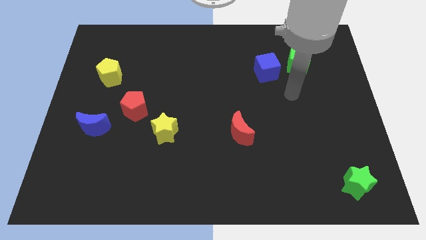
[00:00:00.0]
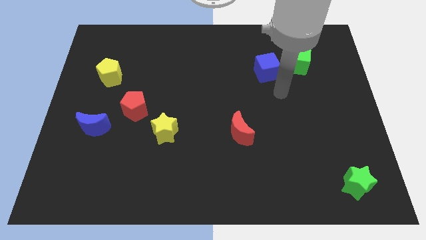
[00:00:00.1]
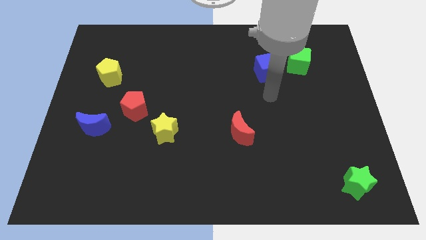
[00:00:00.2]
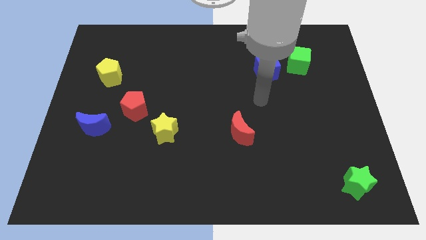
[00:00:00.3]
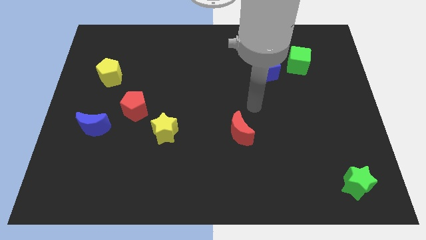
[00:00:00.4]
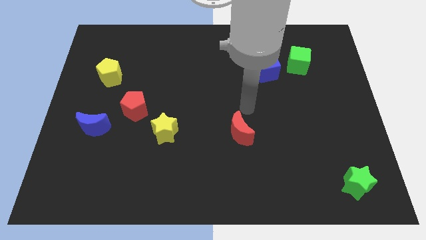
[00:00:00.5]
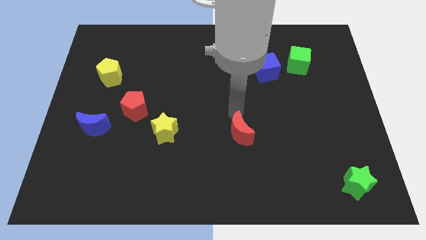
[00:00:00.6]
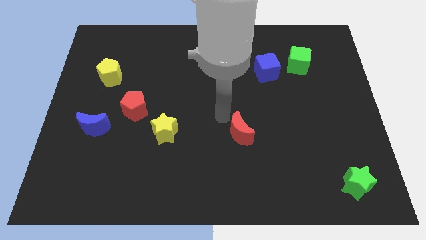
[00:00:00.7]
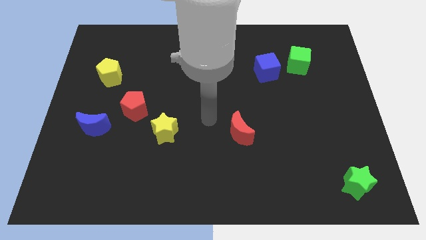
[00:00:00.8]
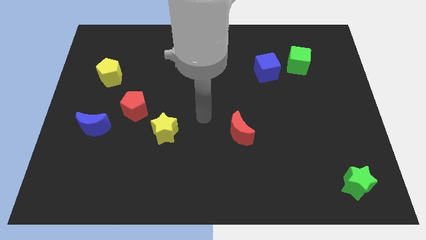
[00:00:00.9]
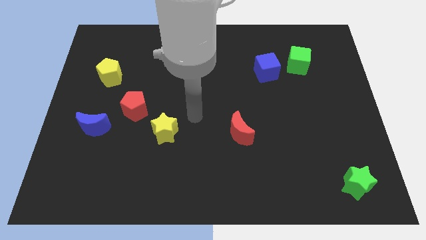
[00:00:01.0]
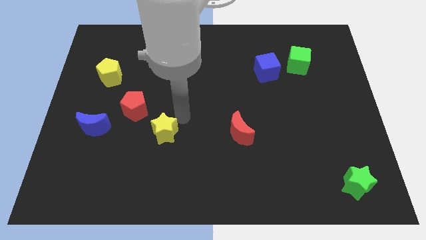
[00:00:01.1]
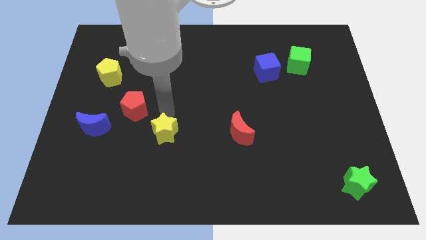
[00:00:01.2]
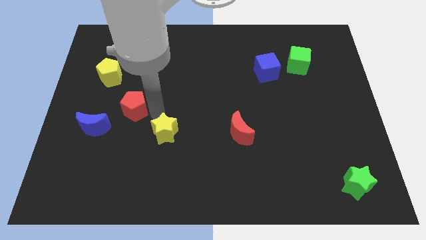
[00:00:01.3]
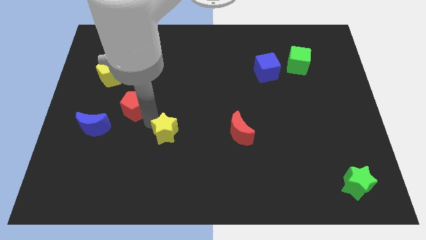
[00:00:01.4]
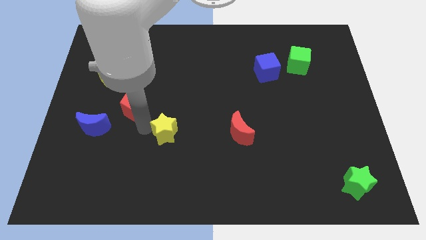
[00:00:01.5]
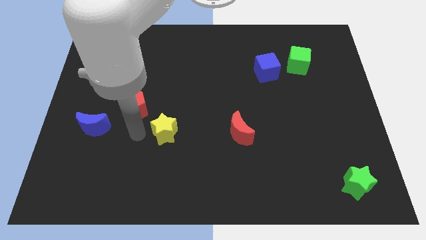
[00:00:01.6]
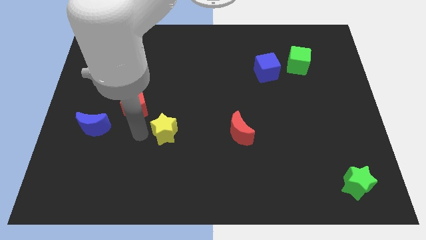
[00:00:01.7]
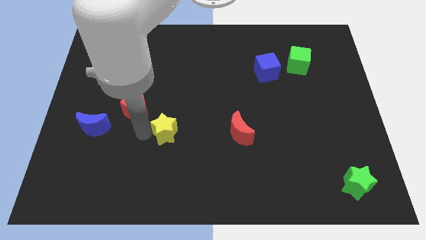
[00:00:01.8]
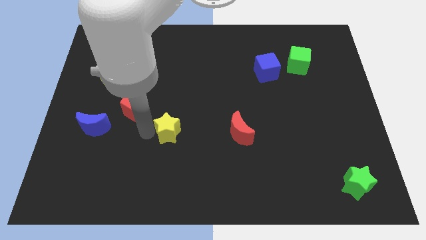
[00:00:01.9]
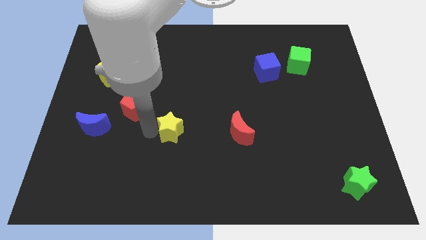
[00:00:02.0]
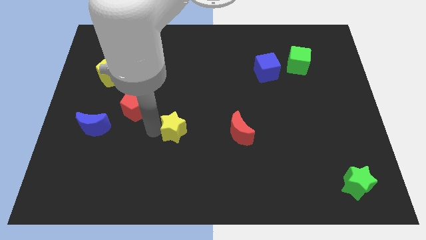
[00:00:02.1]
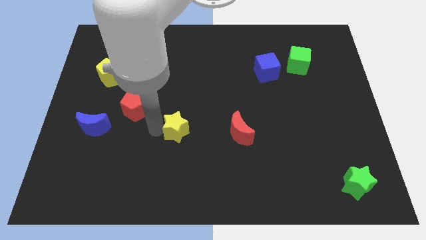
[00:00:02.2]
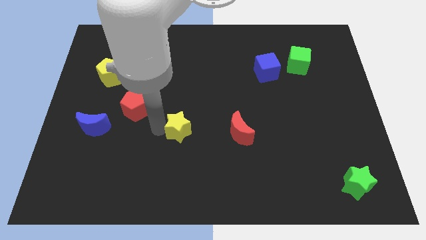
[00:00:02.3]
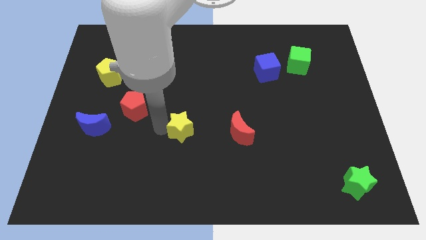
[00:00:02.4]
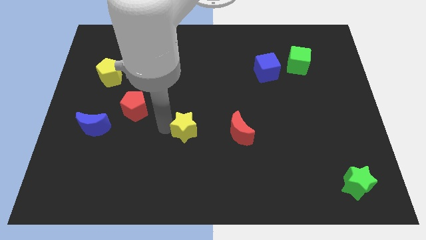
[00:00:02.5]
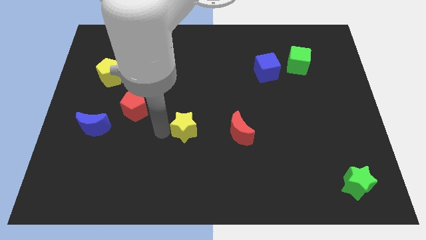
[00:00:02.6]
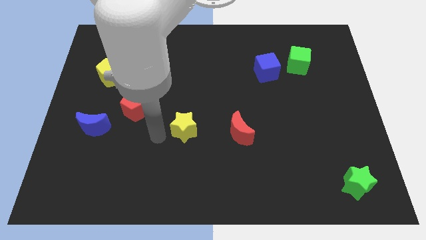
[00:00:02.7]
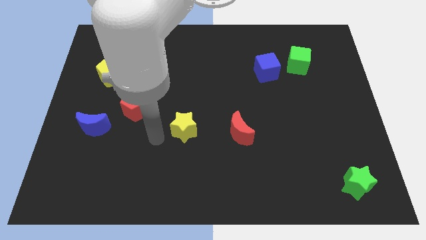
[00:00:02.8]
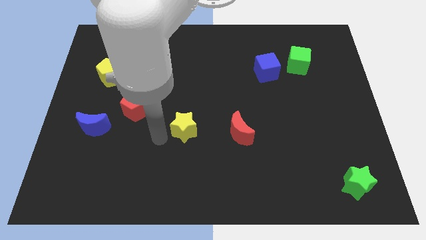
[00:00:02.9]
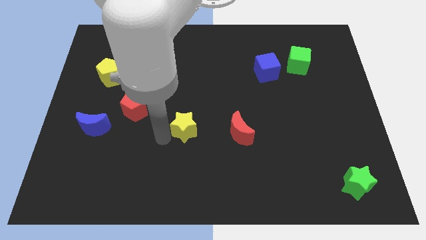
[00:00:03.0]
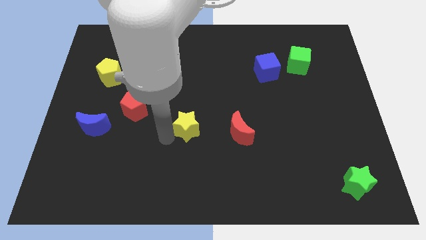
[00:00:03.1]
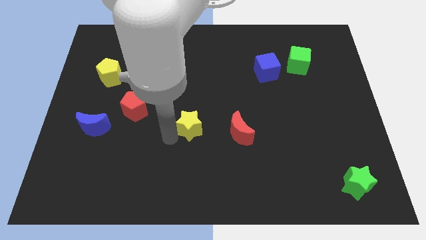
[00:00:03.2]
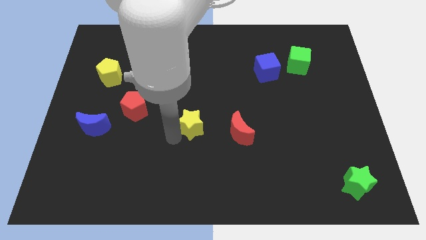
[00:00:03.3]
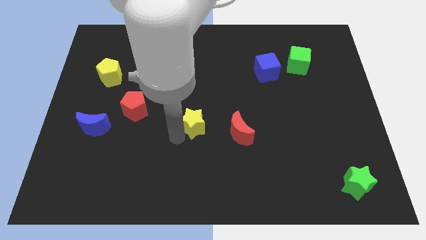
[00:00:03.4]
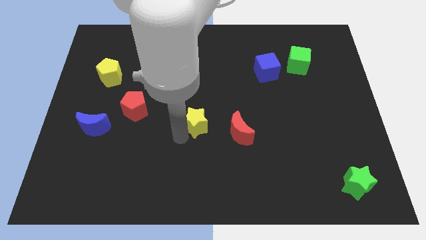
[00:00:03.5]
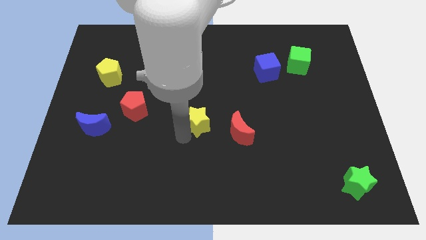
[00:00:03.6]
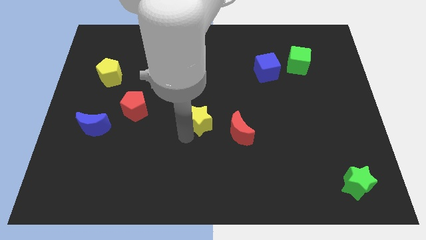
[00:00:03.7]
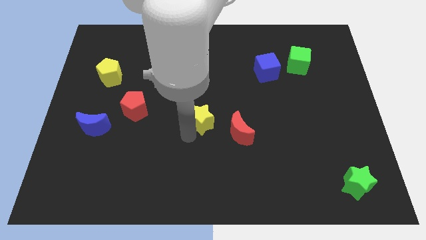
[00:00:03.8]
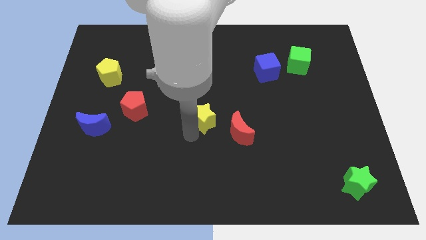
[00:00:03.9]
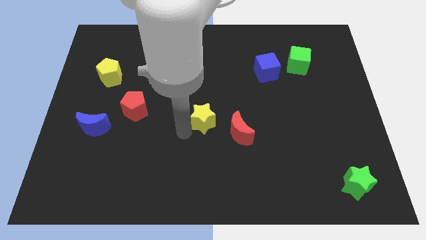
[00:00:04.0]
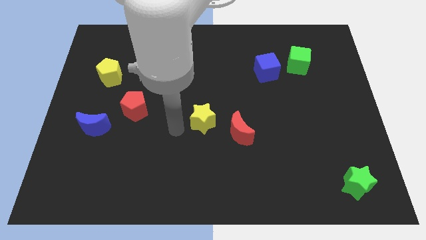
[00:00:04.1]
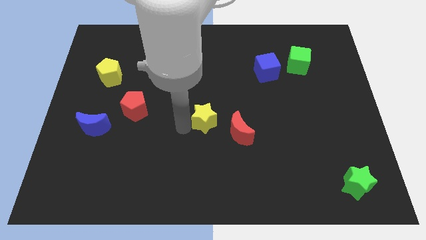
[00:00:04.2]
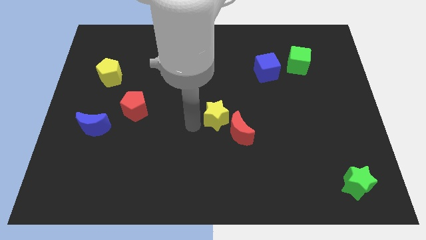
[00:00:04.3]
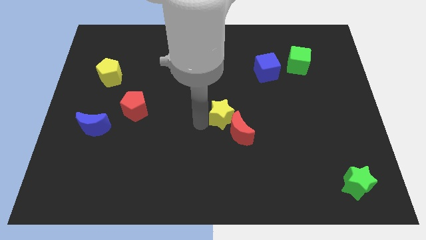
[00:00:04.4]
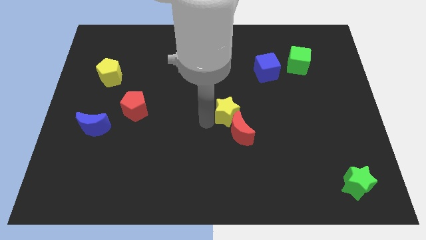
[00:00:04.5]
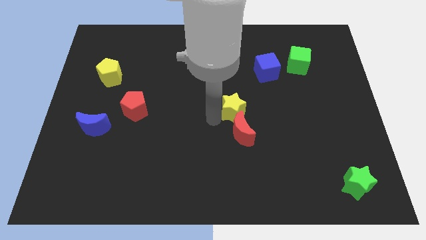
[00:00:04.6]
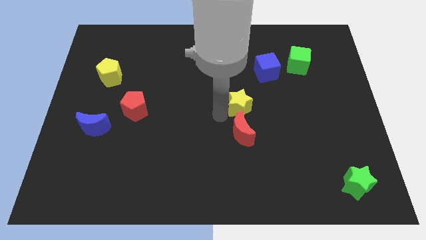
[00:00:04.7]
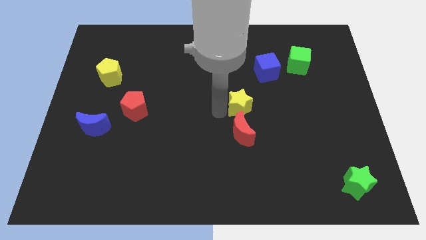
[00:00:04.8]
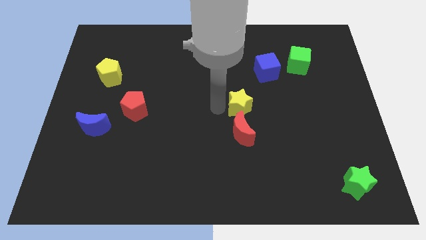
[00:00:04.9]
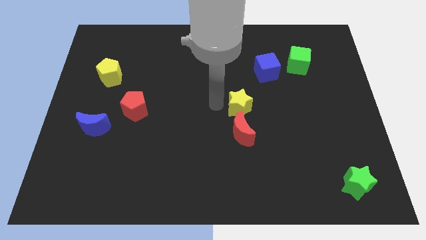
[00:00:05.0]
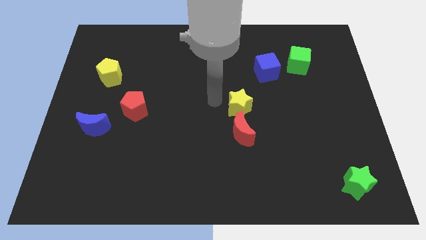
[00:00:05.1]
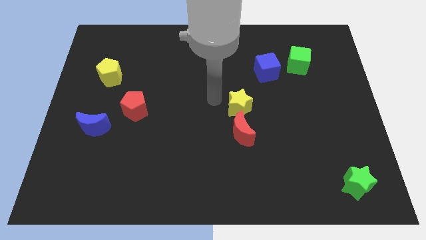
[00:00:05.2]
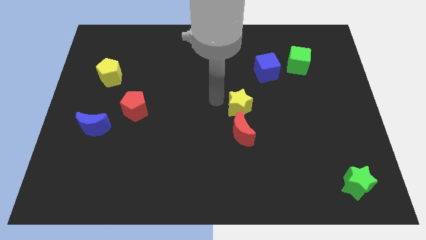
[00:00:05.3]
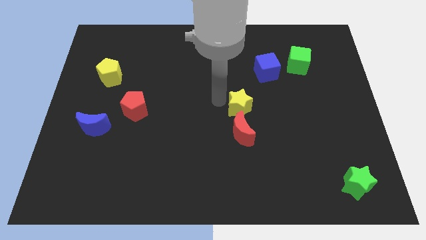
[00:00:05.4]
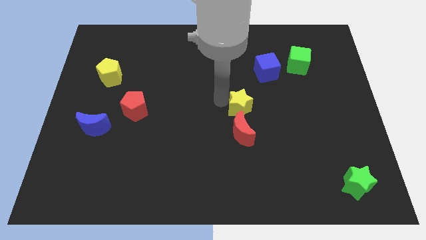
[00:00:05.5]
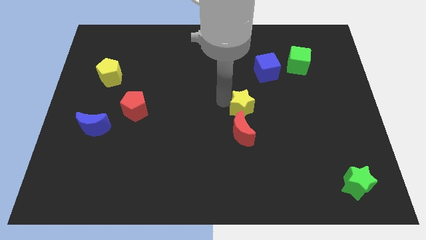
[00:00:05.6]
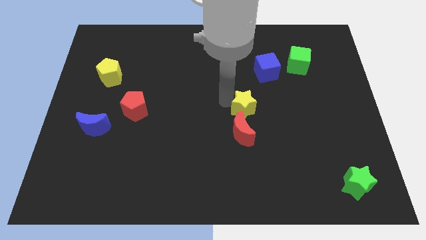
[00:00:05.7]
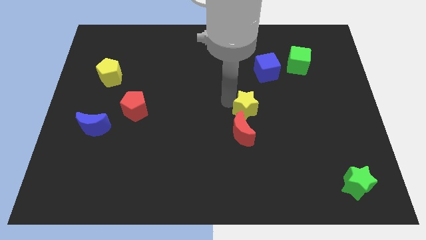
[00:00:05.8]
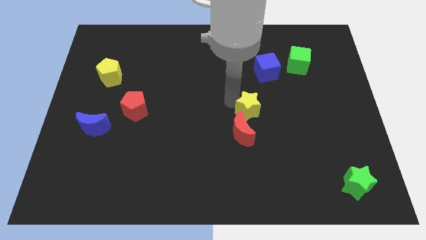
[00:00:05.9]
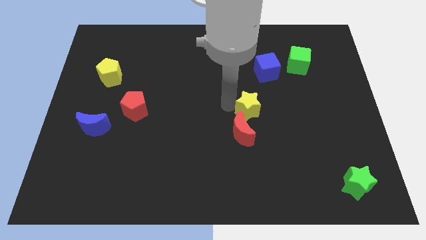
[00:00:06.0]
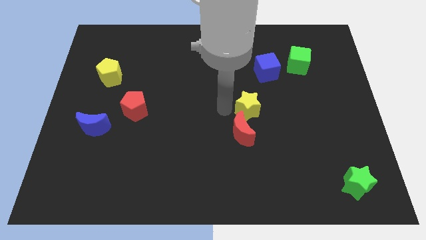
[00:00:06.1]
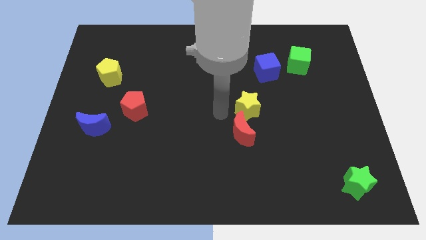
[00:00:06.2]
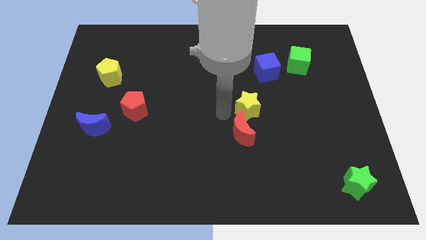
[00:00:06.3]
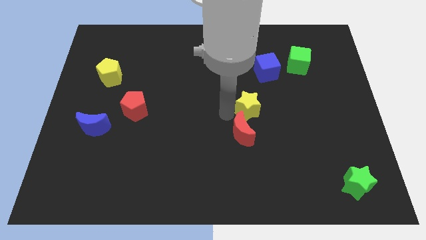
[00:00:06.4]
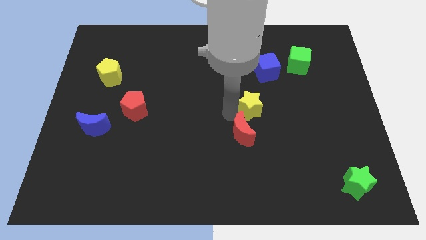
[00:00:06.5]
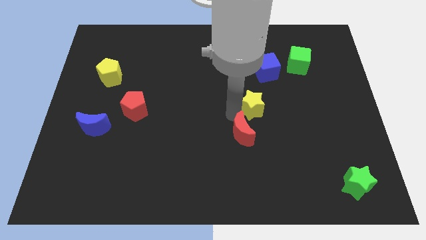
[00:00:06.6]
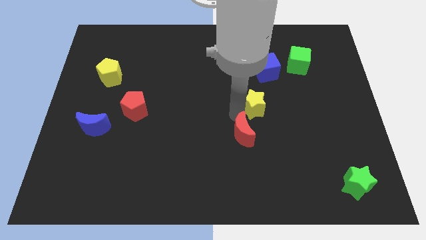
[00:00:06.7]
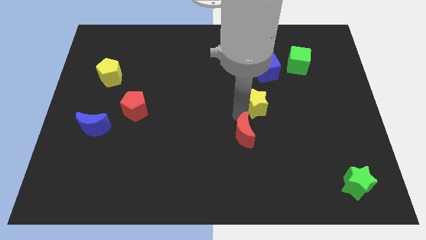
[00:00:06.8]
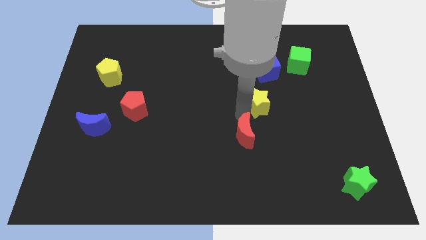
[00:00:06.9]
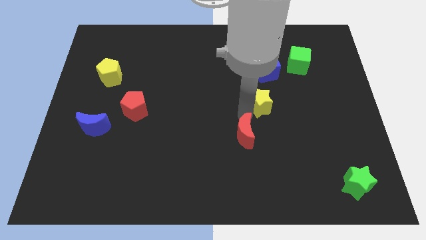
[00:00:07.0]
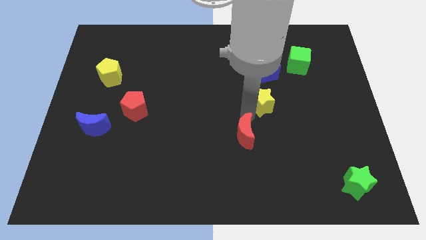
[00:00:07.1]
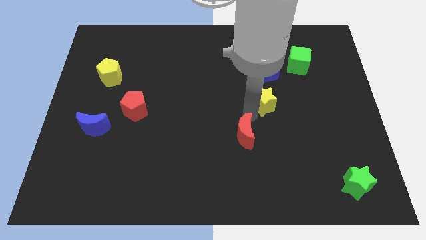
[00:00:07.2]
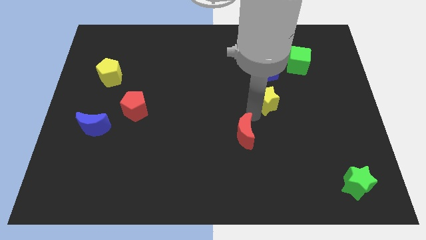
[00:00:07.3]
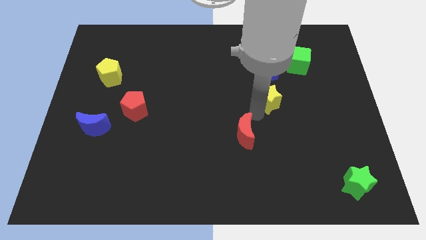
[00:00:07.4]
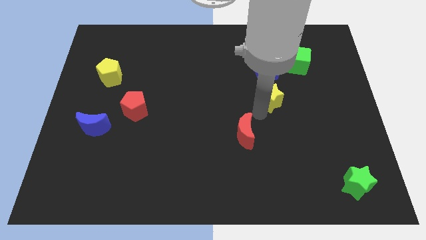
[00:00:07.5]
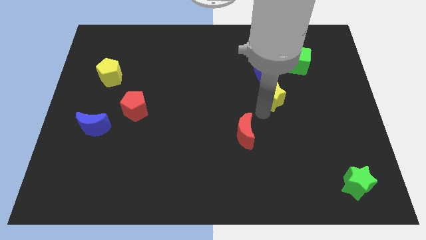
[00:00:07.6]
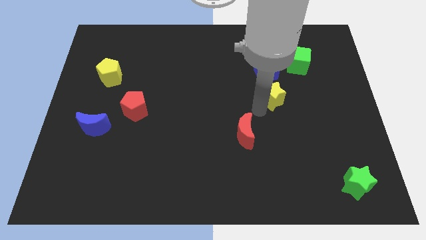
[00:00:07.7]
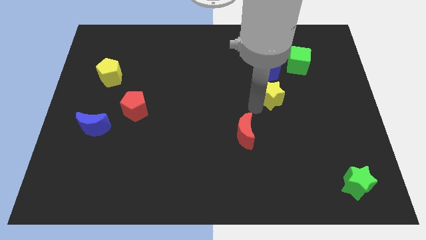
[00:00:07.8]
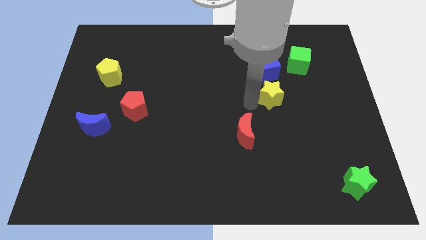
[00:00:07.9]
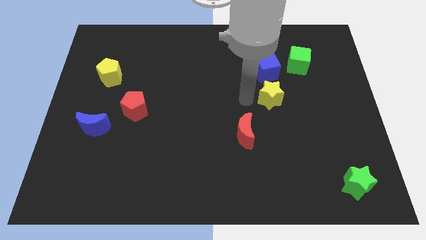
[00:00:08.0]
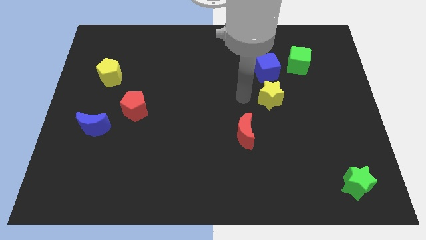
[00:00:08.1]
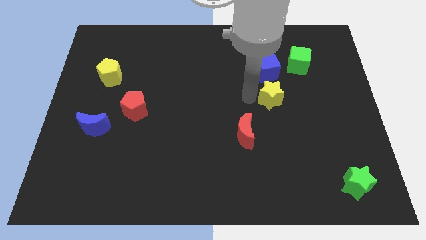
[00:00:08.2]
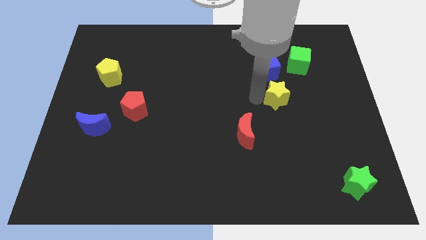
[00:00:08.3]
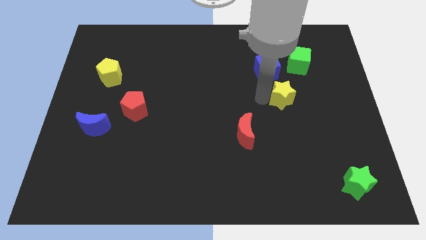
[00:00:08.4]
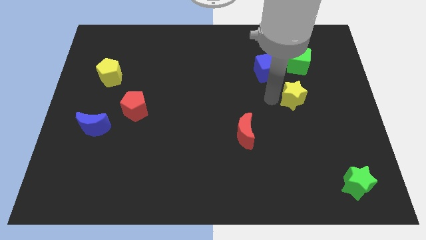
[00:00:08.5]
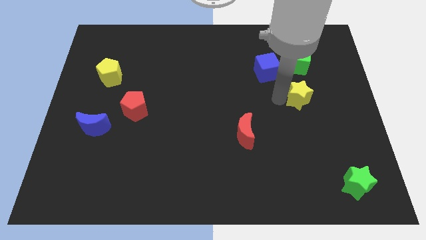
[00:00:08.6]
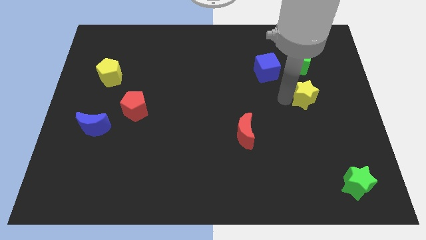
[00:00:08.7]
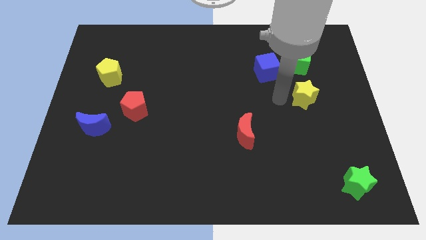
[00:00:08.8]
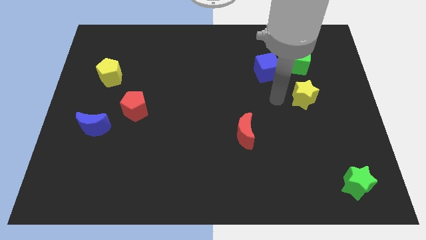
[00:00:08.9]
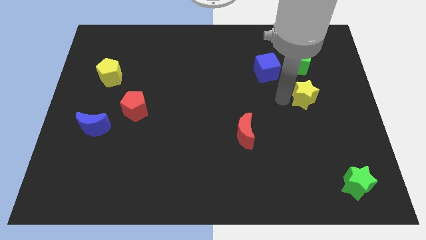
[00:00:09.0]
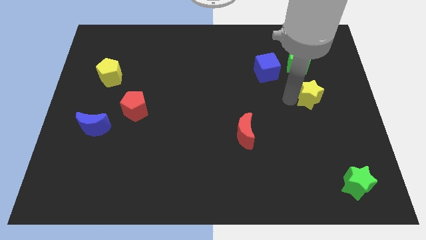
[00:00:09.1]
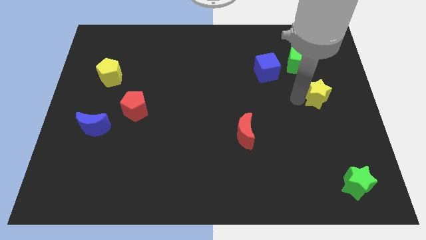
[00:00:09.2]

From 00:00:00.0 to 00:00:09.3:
slide the yellow star to the right side
